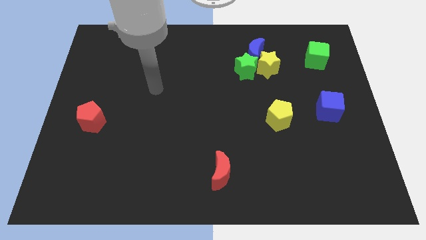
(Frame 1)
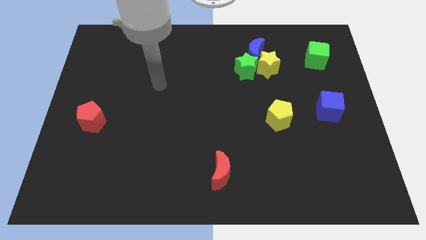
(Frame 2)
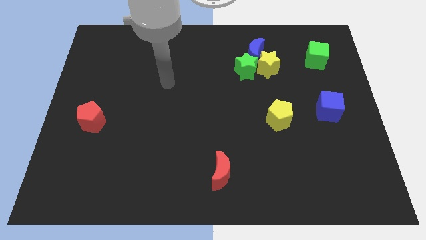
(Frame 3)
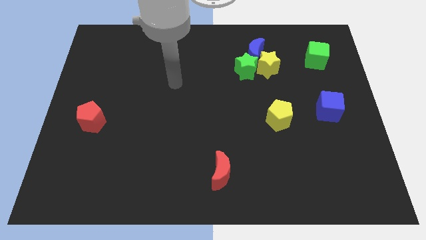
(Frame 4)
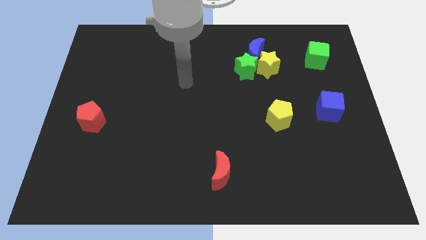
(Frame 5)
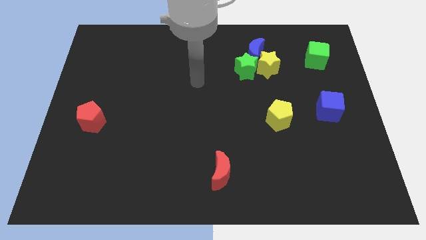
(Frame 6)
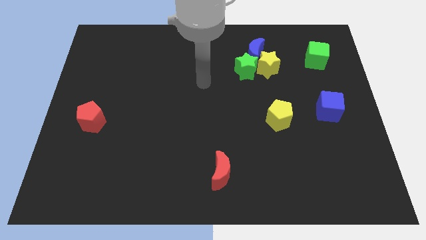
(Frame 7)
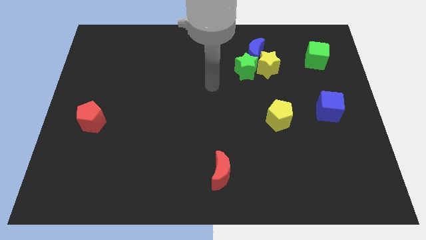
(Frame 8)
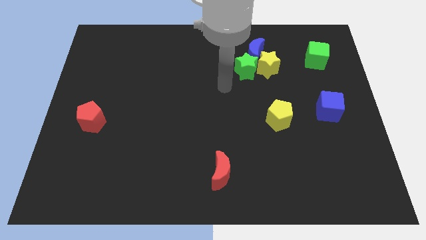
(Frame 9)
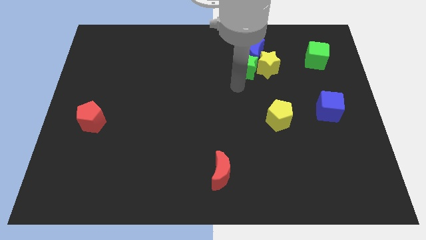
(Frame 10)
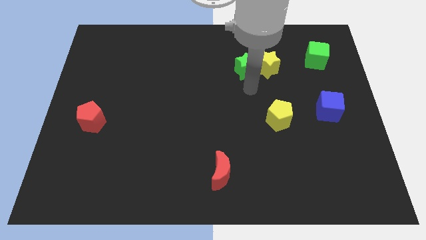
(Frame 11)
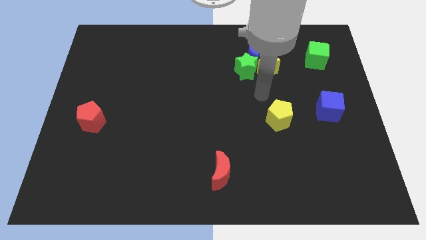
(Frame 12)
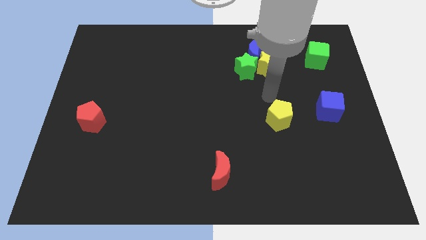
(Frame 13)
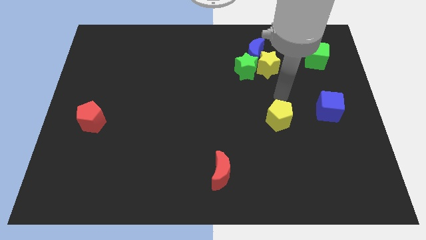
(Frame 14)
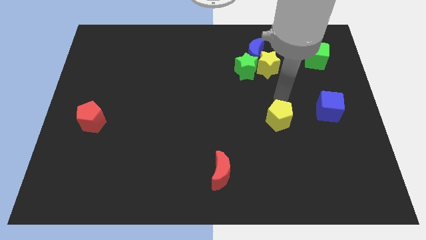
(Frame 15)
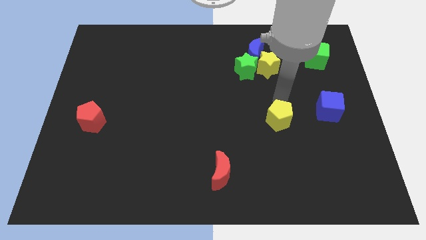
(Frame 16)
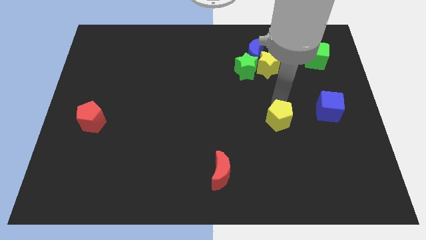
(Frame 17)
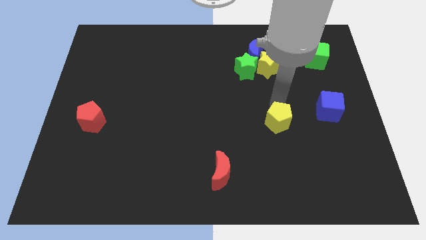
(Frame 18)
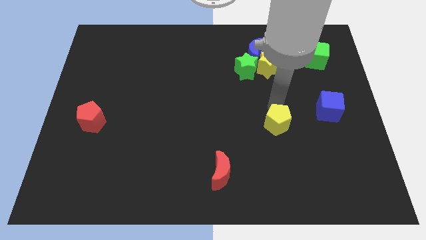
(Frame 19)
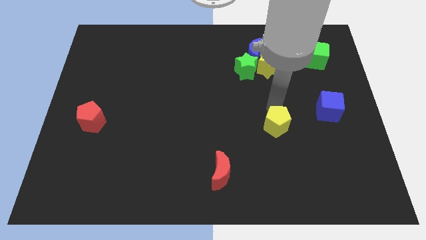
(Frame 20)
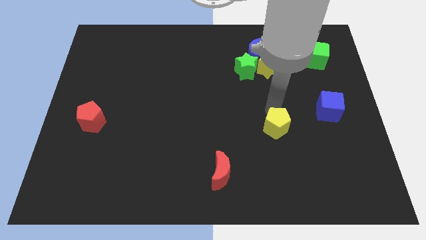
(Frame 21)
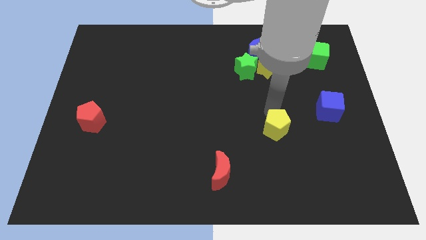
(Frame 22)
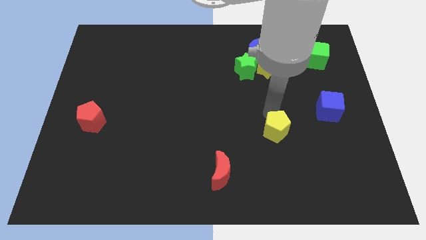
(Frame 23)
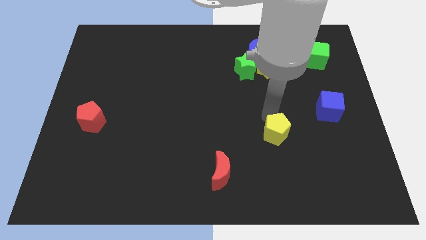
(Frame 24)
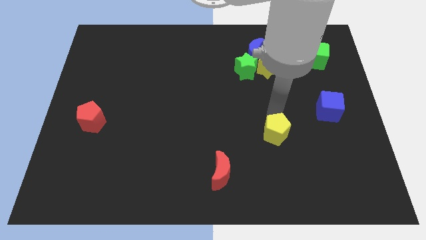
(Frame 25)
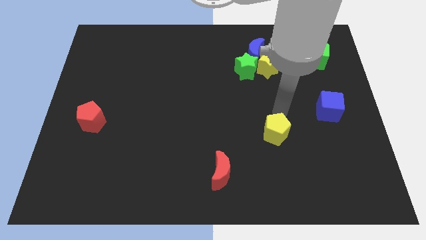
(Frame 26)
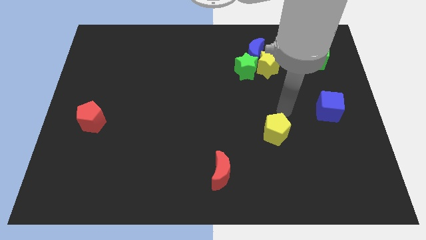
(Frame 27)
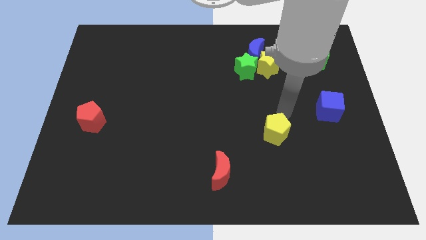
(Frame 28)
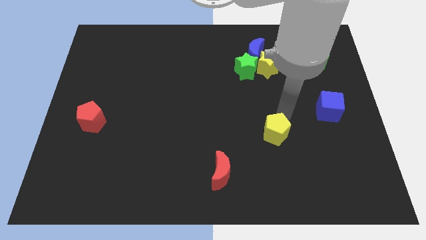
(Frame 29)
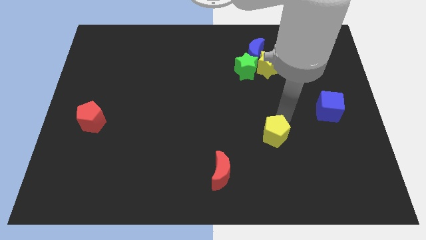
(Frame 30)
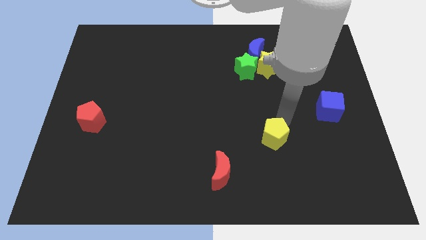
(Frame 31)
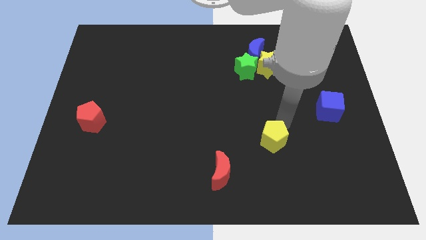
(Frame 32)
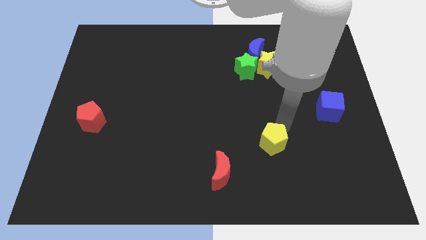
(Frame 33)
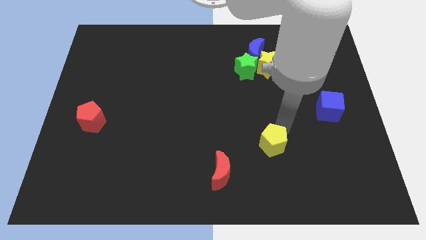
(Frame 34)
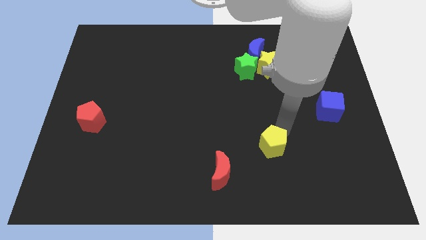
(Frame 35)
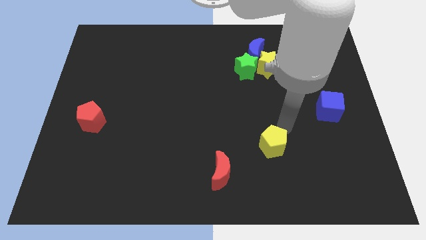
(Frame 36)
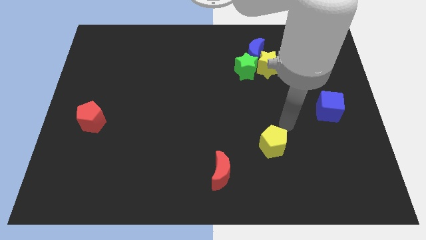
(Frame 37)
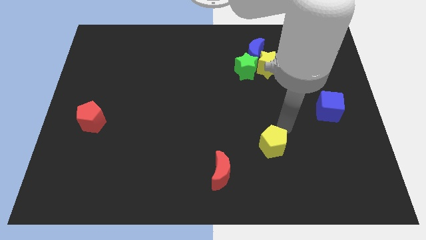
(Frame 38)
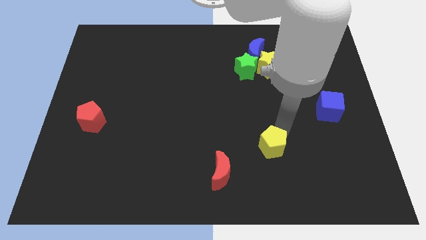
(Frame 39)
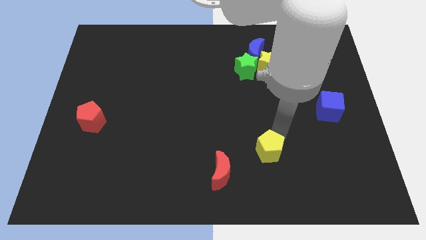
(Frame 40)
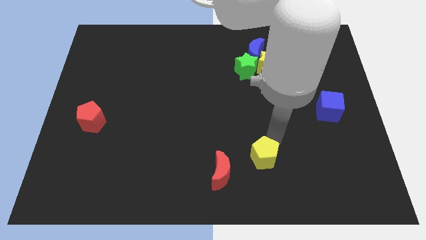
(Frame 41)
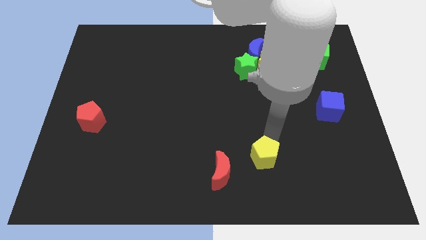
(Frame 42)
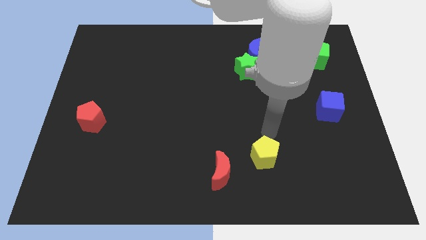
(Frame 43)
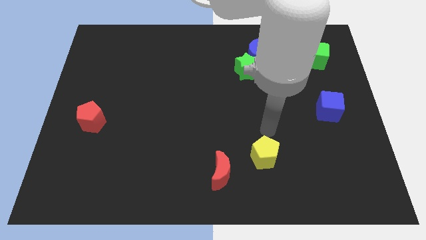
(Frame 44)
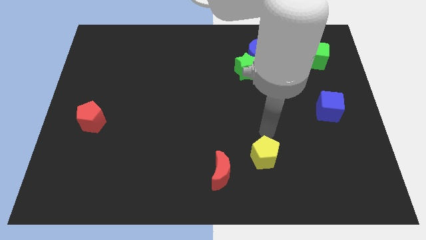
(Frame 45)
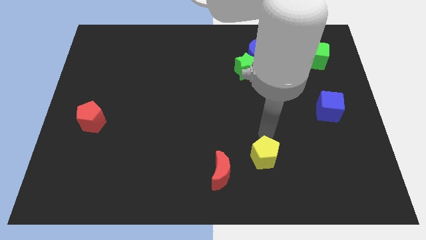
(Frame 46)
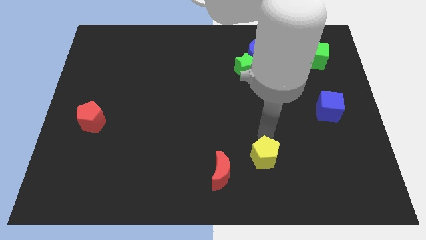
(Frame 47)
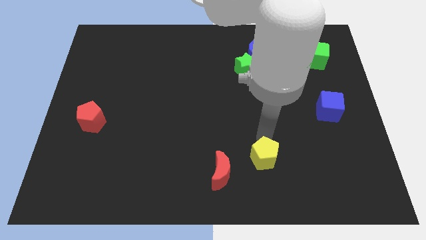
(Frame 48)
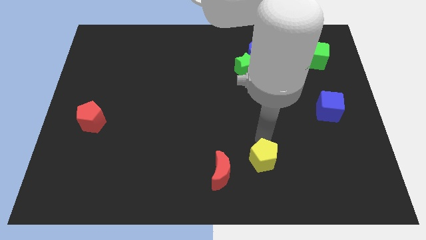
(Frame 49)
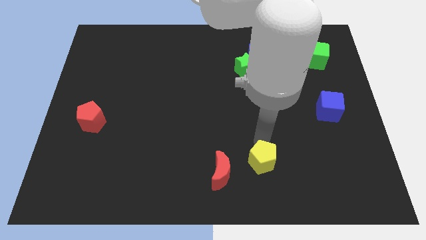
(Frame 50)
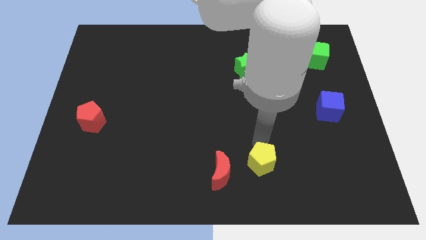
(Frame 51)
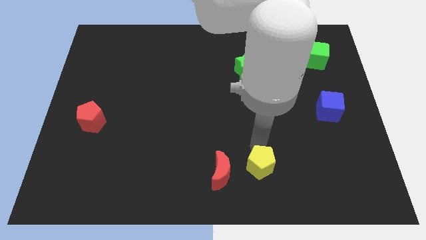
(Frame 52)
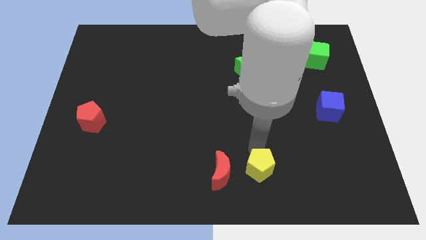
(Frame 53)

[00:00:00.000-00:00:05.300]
slide the yellow pentagon to the bottom

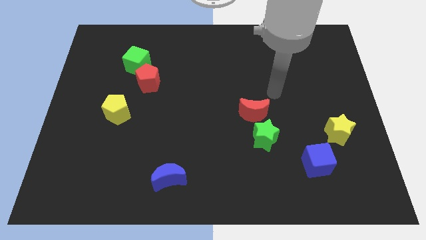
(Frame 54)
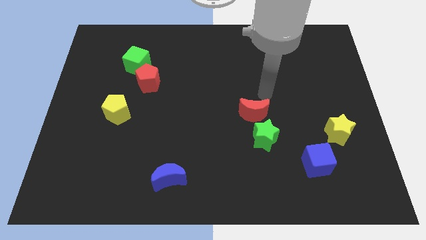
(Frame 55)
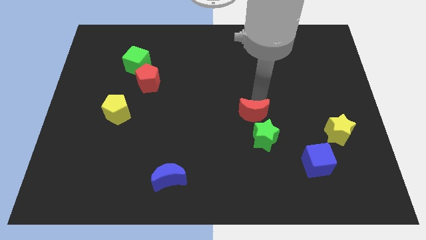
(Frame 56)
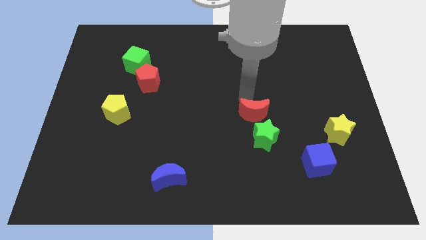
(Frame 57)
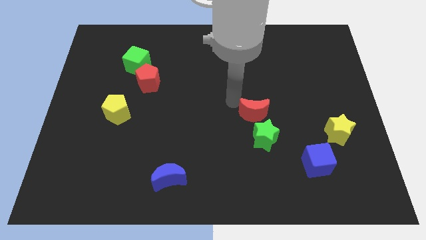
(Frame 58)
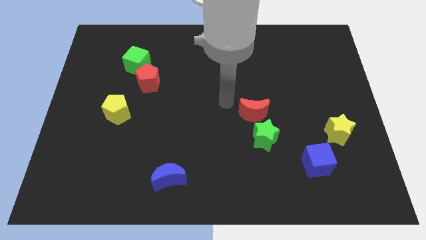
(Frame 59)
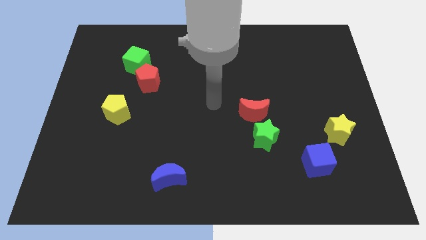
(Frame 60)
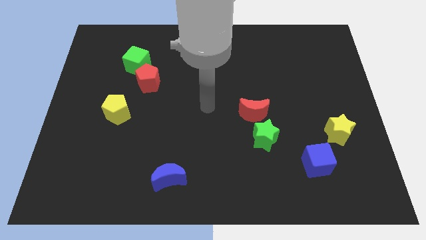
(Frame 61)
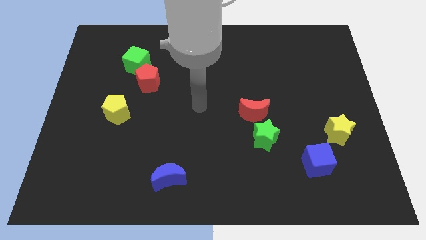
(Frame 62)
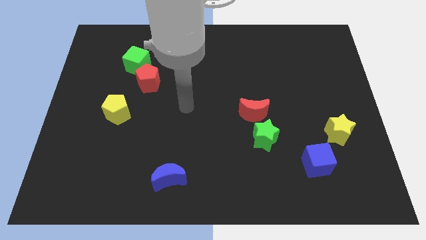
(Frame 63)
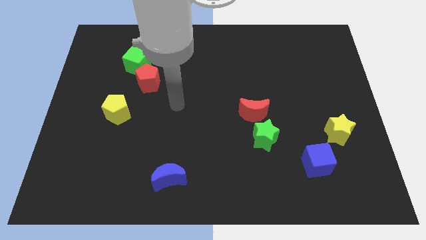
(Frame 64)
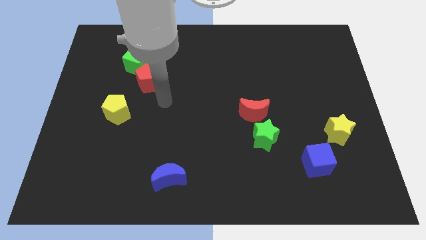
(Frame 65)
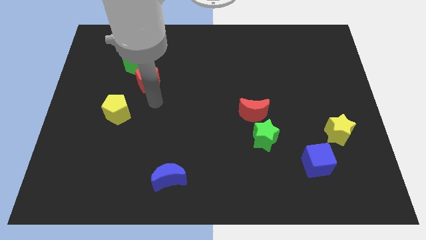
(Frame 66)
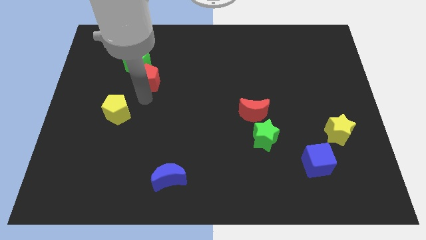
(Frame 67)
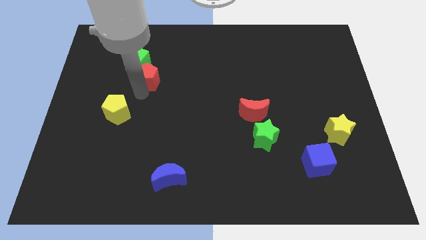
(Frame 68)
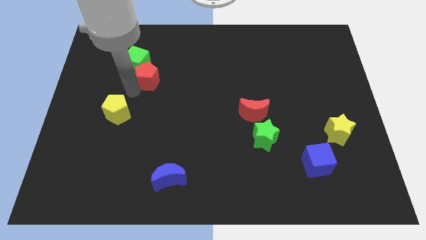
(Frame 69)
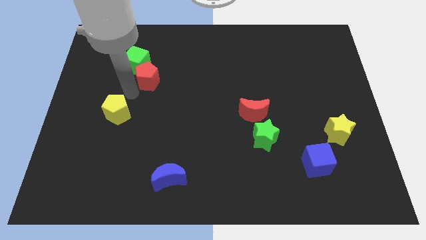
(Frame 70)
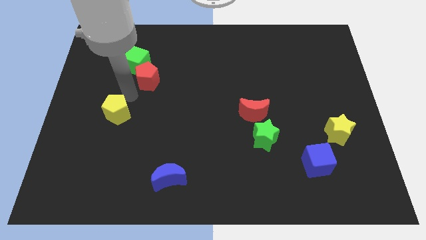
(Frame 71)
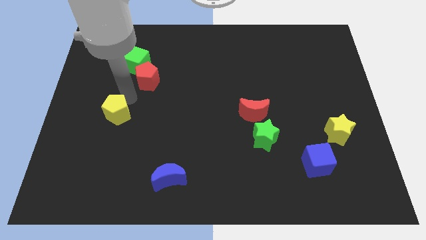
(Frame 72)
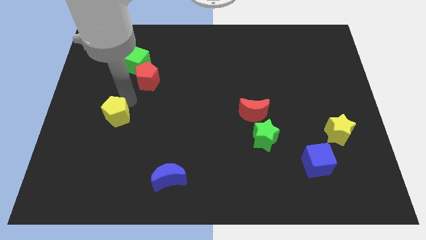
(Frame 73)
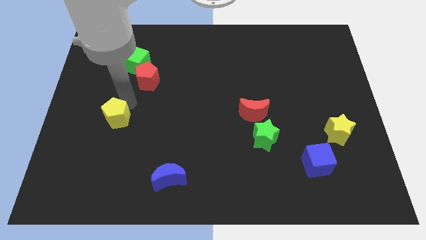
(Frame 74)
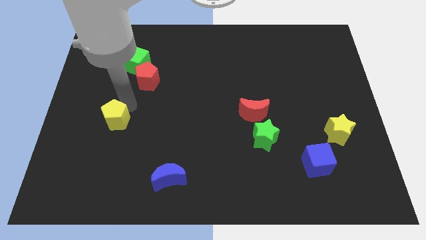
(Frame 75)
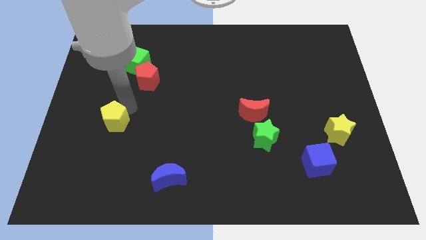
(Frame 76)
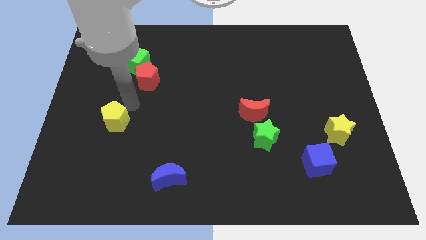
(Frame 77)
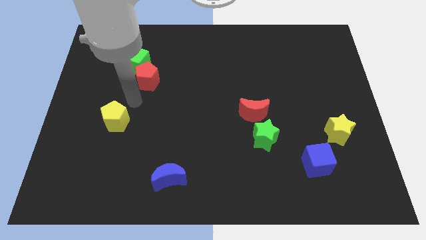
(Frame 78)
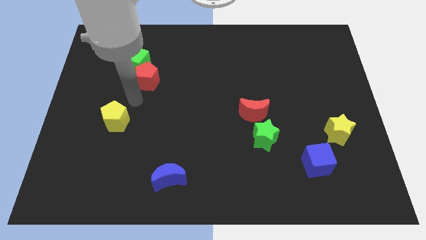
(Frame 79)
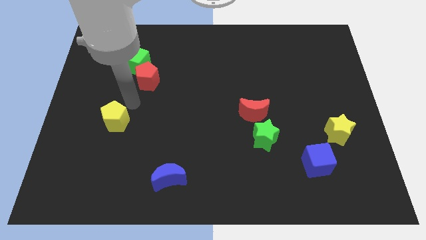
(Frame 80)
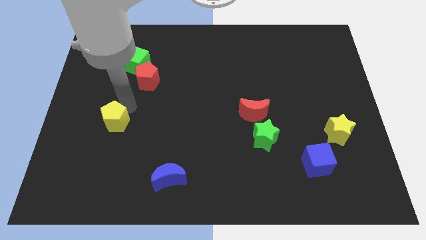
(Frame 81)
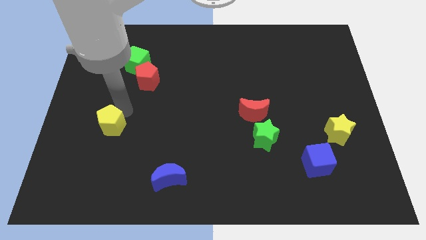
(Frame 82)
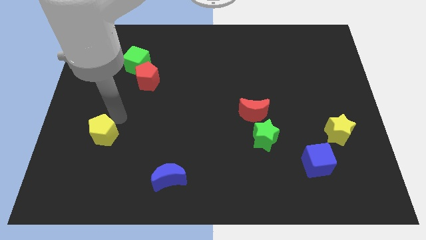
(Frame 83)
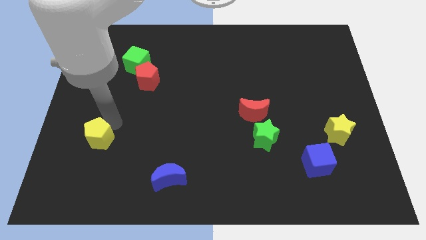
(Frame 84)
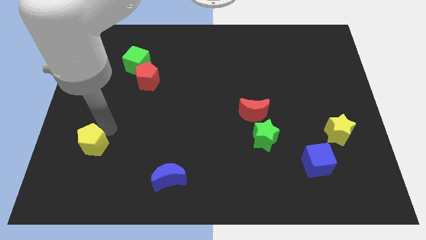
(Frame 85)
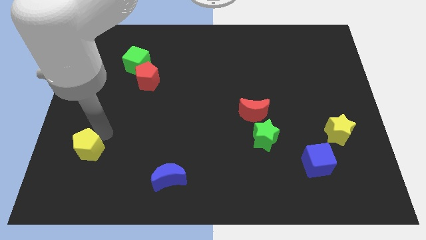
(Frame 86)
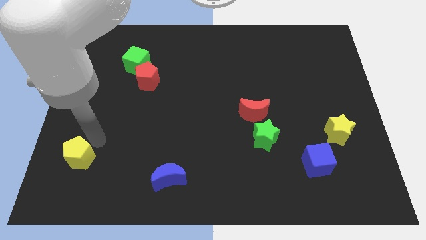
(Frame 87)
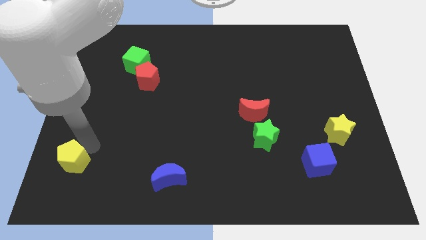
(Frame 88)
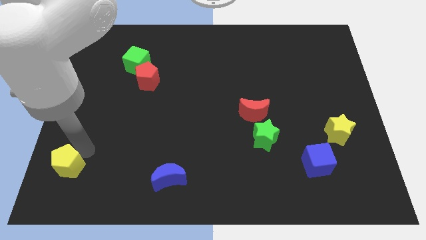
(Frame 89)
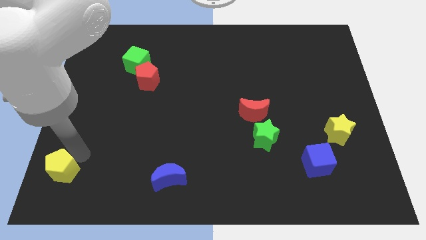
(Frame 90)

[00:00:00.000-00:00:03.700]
slide the yellow pentagon to the bottom left
